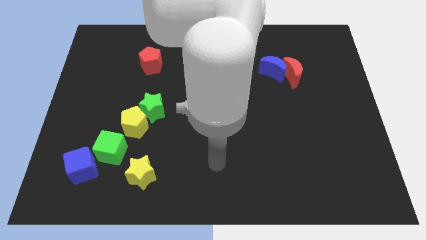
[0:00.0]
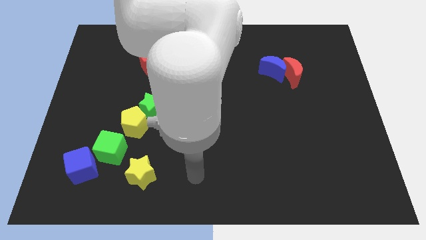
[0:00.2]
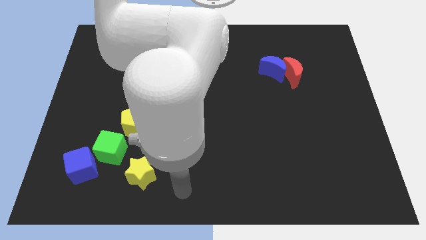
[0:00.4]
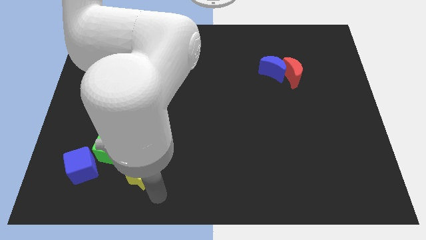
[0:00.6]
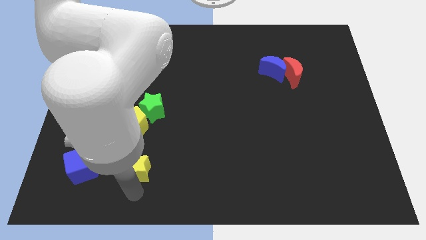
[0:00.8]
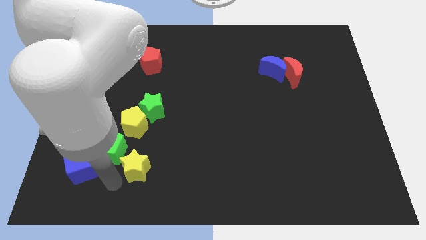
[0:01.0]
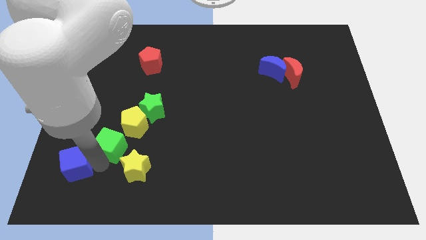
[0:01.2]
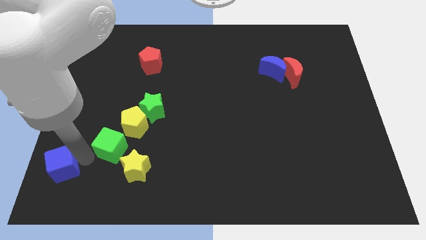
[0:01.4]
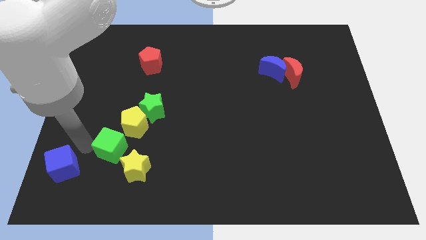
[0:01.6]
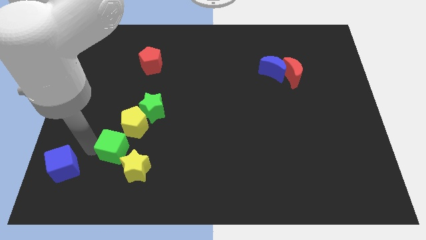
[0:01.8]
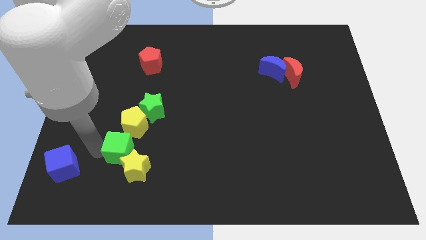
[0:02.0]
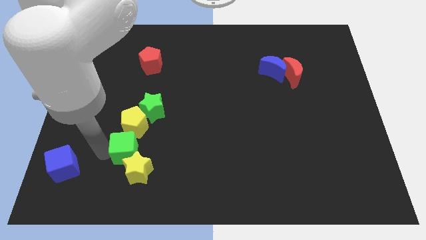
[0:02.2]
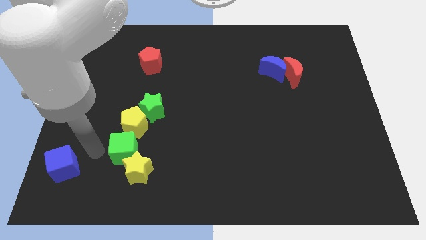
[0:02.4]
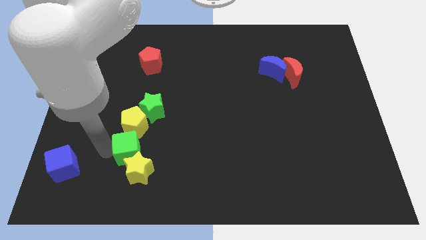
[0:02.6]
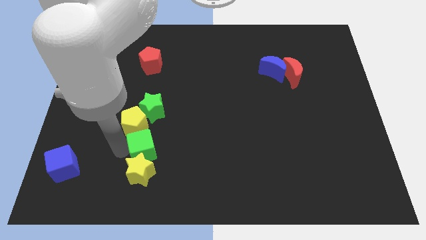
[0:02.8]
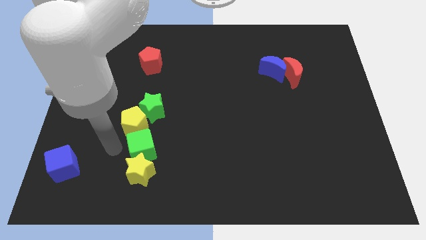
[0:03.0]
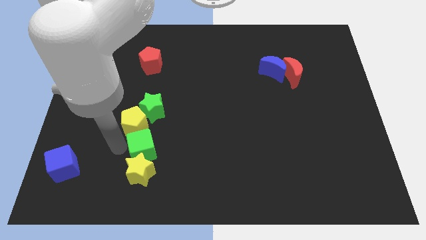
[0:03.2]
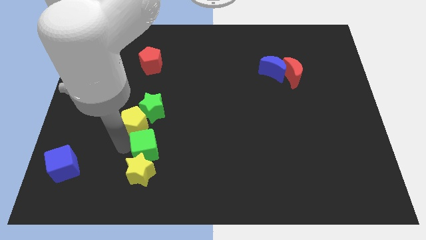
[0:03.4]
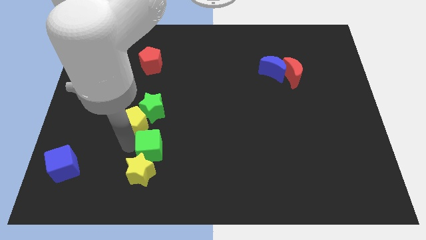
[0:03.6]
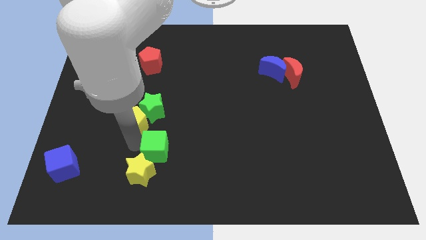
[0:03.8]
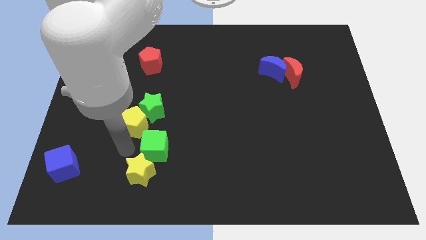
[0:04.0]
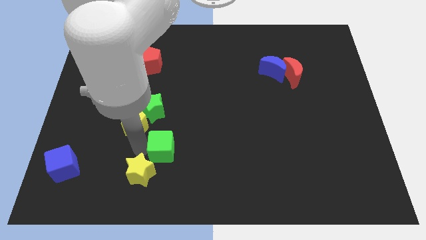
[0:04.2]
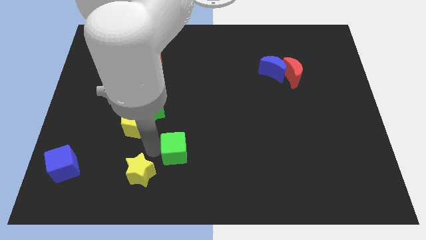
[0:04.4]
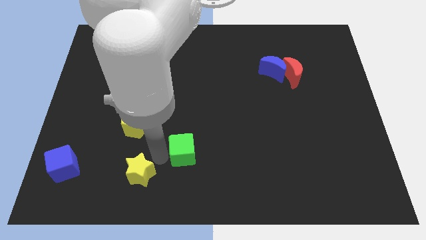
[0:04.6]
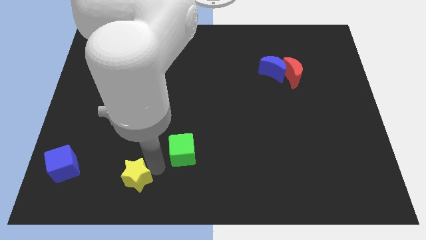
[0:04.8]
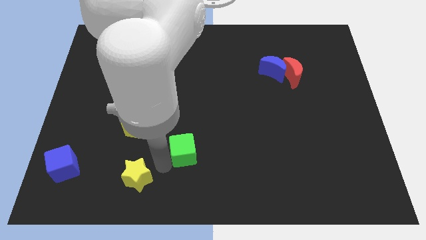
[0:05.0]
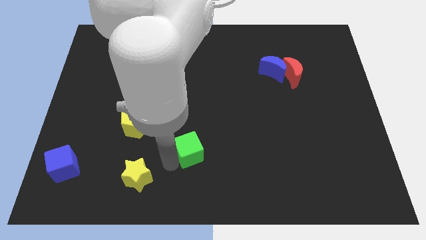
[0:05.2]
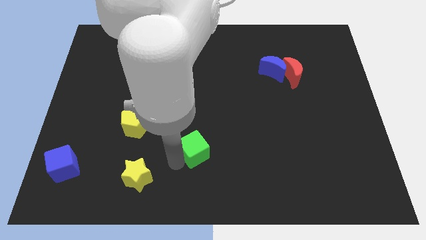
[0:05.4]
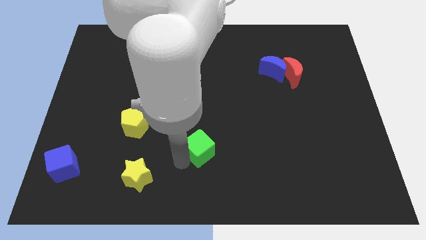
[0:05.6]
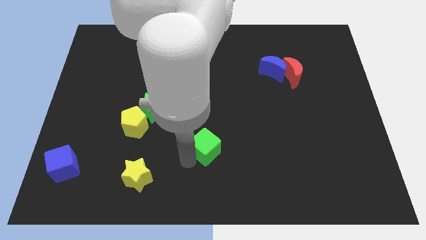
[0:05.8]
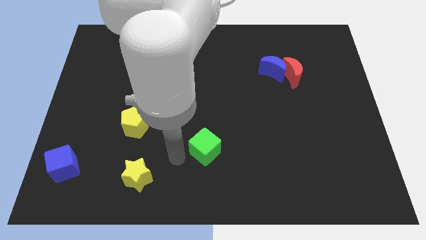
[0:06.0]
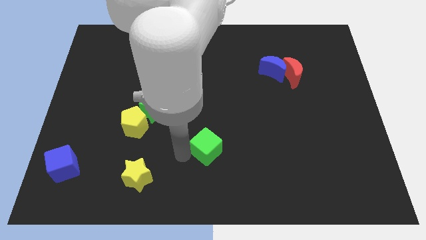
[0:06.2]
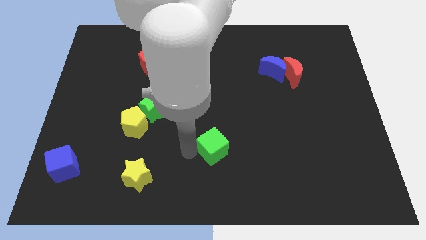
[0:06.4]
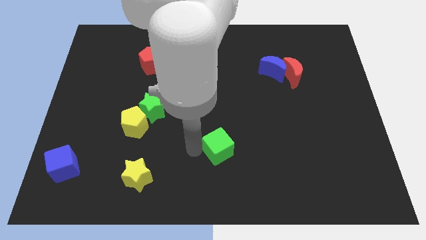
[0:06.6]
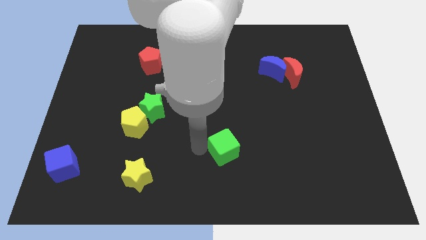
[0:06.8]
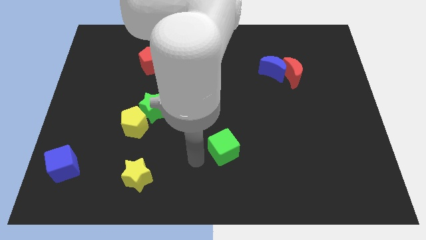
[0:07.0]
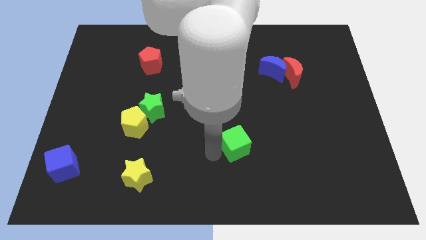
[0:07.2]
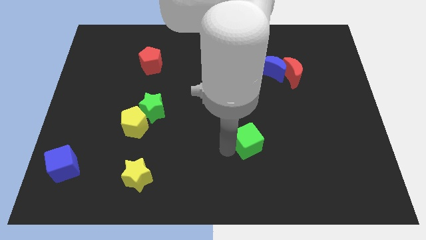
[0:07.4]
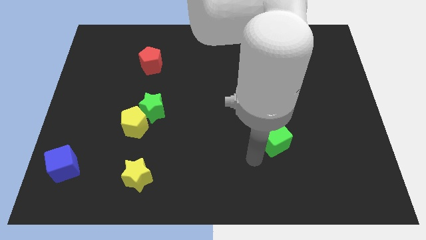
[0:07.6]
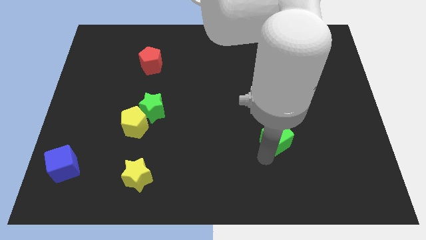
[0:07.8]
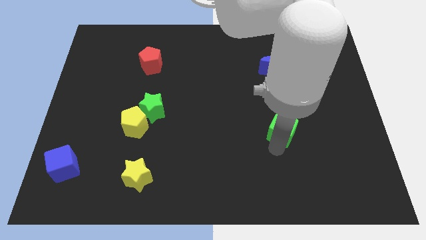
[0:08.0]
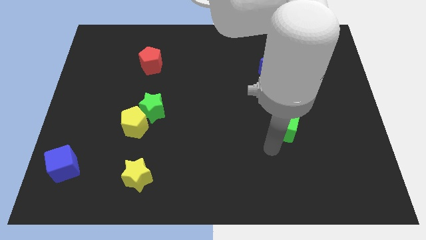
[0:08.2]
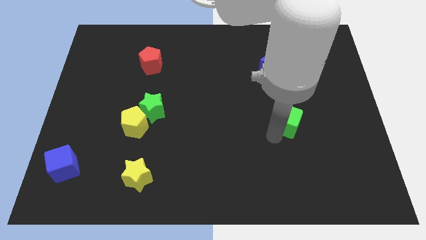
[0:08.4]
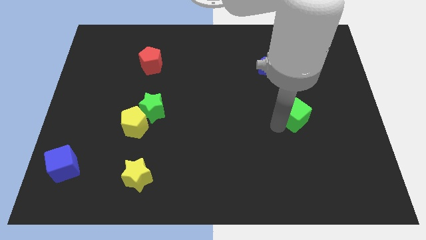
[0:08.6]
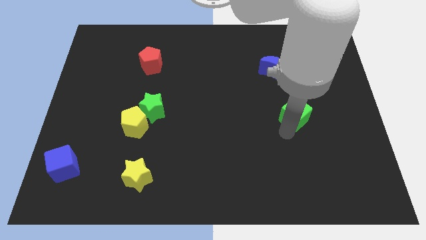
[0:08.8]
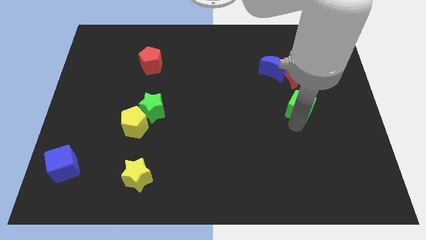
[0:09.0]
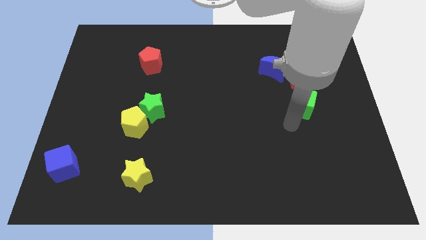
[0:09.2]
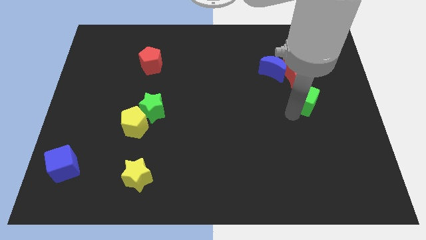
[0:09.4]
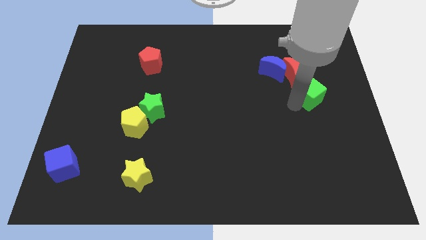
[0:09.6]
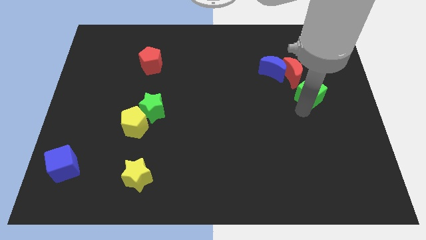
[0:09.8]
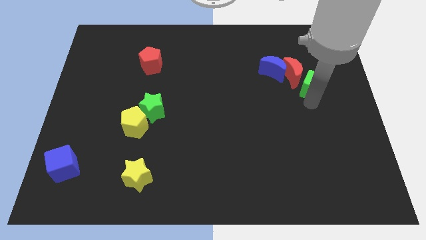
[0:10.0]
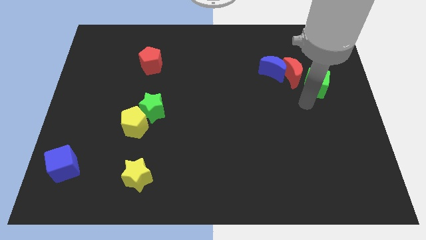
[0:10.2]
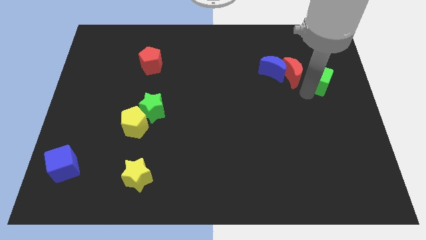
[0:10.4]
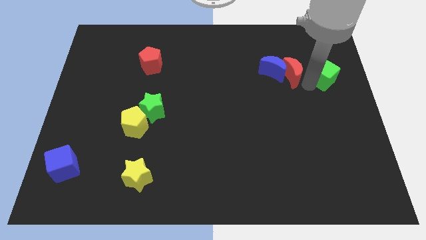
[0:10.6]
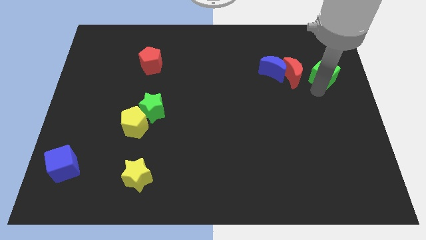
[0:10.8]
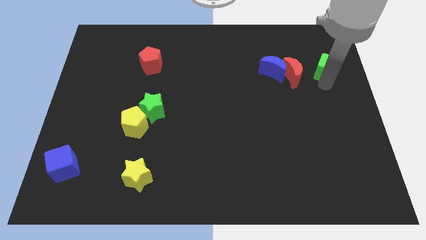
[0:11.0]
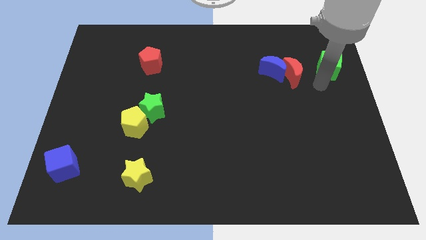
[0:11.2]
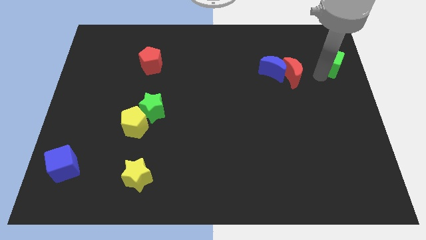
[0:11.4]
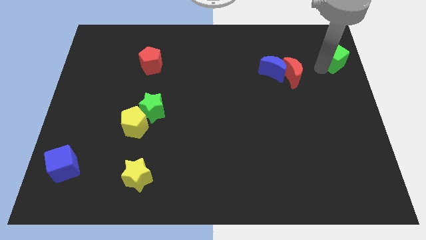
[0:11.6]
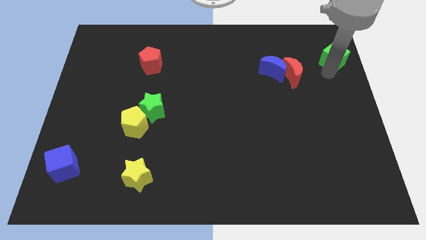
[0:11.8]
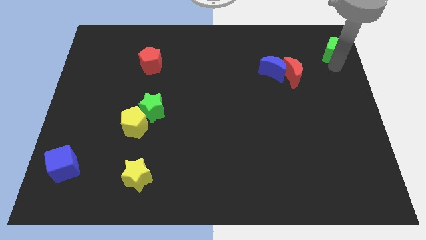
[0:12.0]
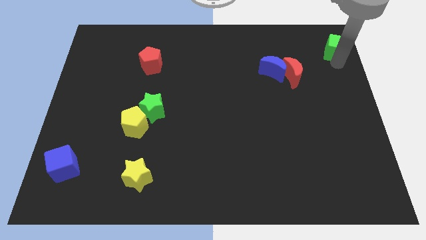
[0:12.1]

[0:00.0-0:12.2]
slide the green cube to the top right corner

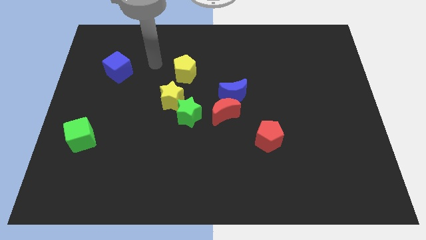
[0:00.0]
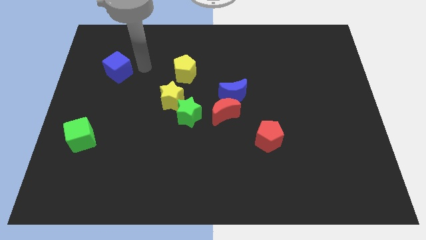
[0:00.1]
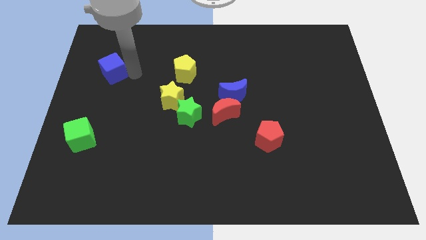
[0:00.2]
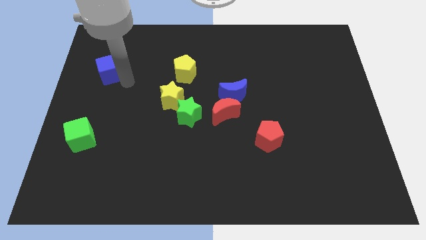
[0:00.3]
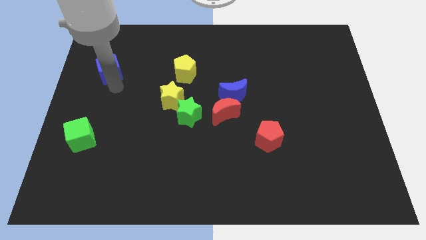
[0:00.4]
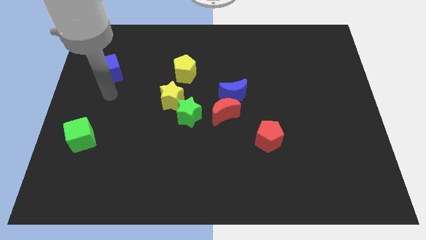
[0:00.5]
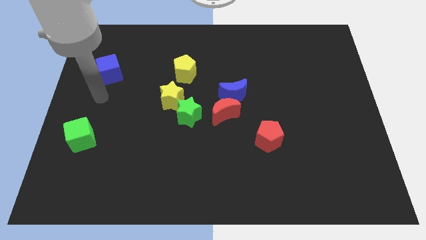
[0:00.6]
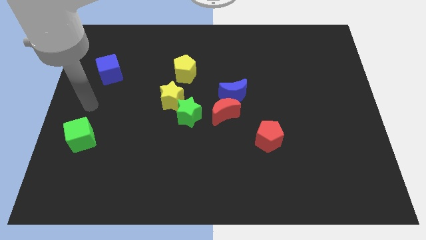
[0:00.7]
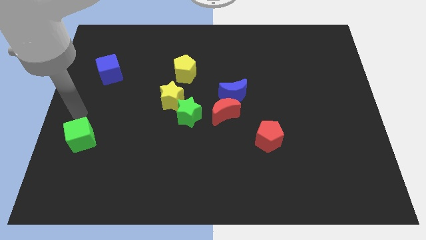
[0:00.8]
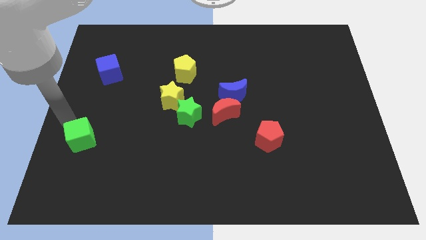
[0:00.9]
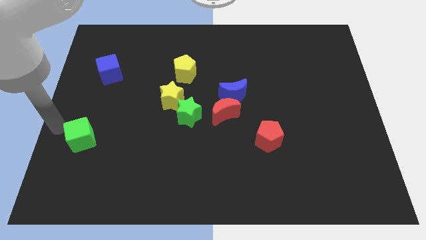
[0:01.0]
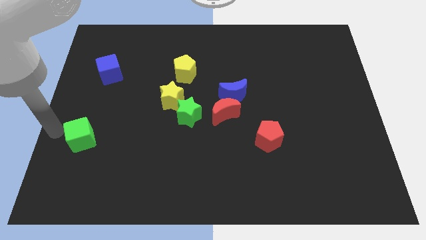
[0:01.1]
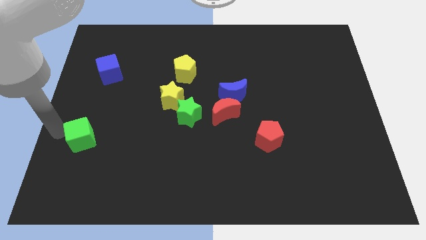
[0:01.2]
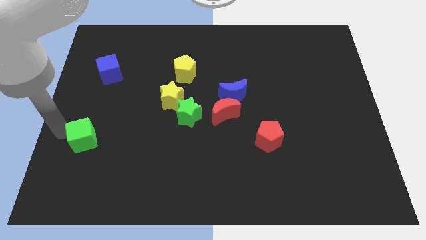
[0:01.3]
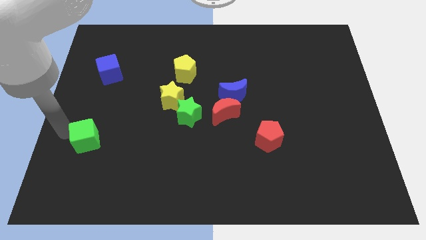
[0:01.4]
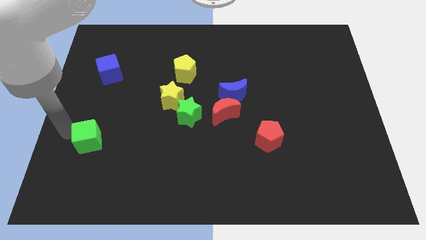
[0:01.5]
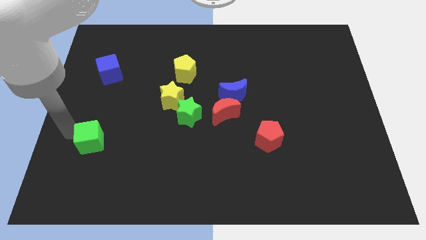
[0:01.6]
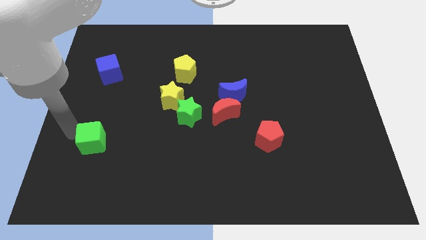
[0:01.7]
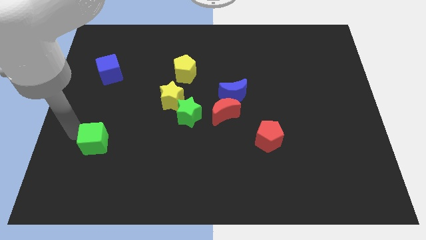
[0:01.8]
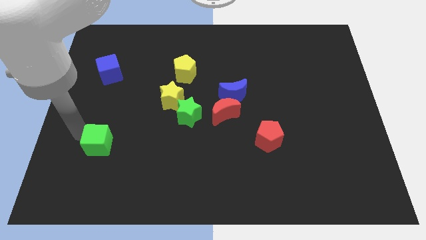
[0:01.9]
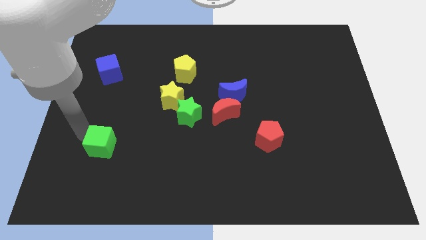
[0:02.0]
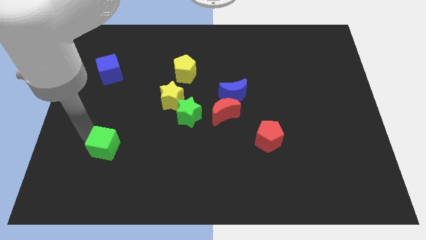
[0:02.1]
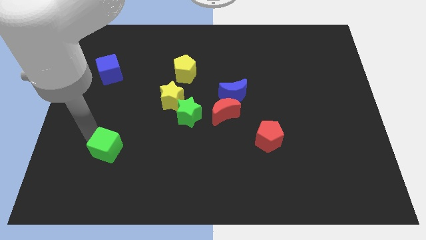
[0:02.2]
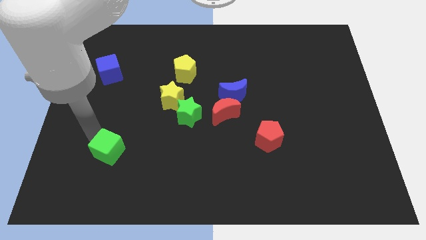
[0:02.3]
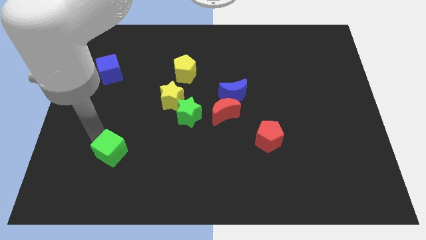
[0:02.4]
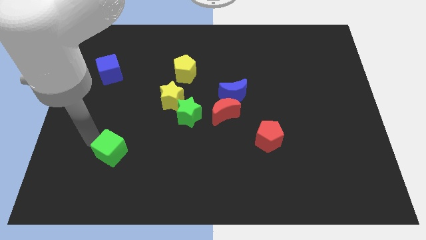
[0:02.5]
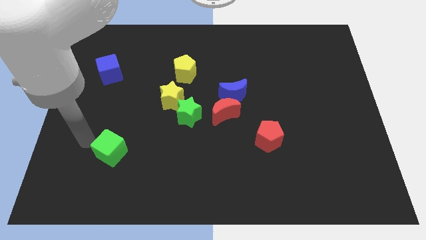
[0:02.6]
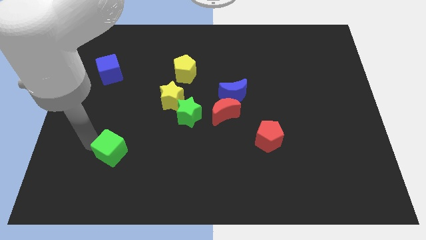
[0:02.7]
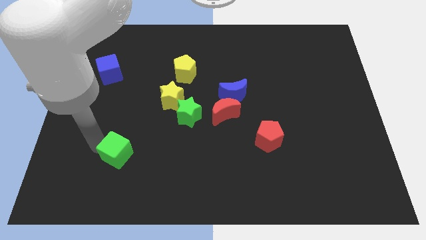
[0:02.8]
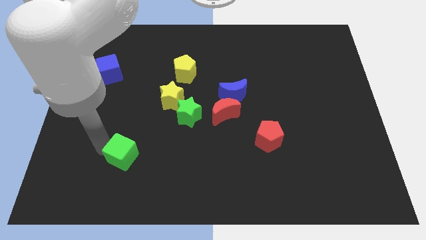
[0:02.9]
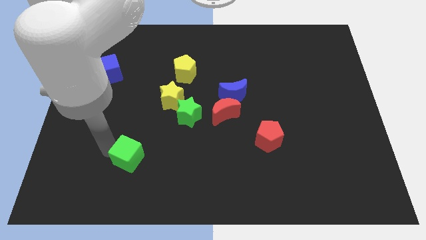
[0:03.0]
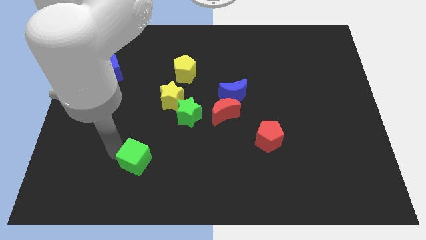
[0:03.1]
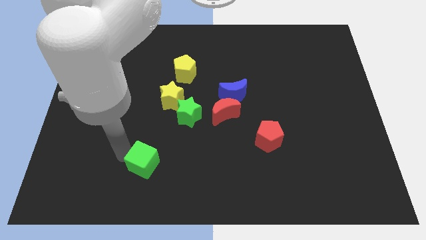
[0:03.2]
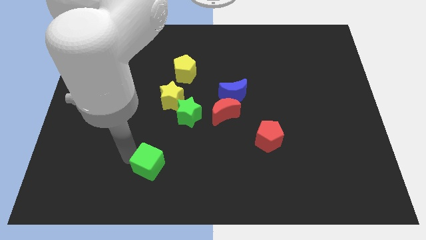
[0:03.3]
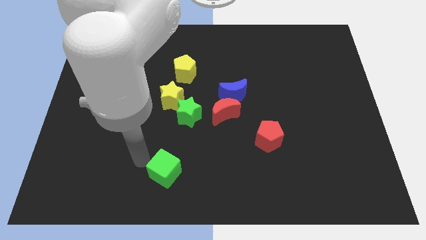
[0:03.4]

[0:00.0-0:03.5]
put the green cube to the bottom
